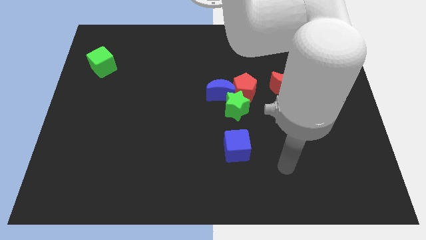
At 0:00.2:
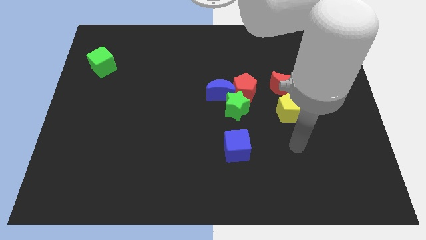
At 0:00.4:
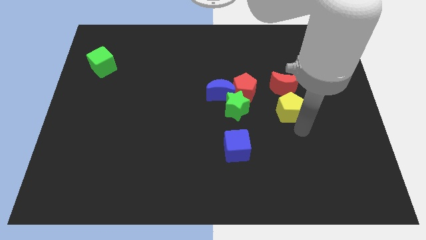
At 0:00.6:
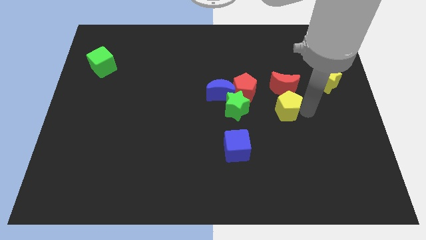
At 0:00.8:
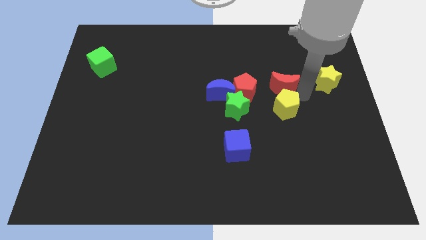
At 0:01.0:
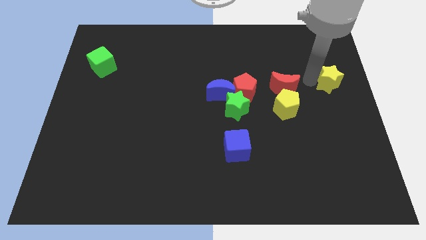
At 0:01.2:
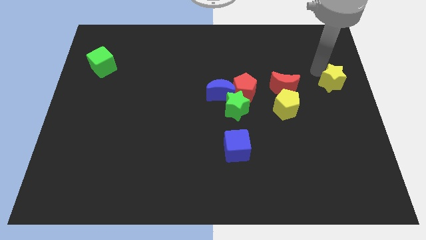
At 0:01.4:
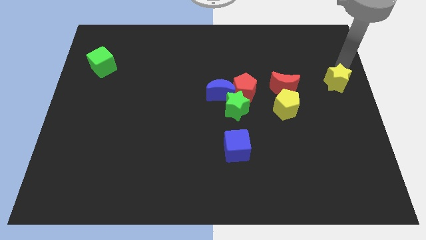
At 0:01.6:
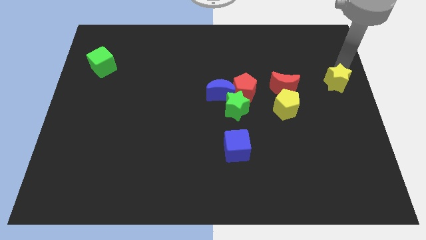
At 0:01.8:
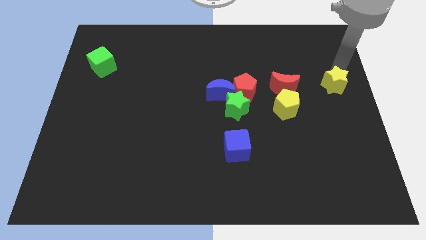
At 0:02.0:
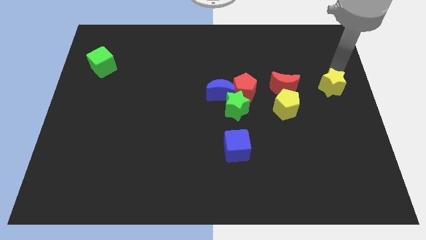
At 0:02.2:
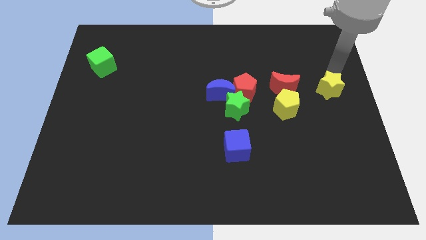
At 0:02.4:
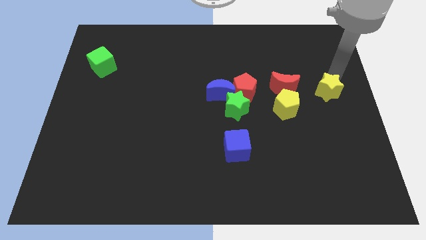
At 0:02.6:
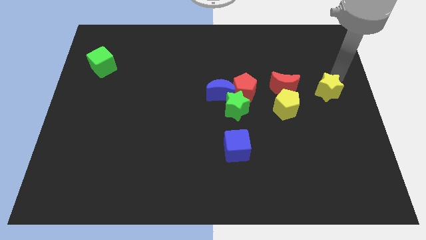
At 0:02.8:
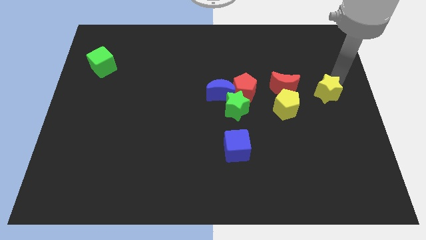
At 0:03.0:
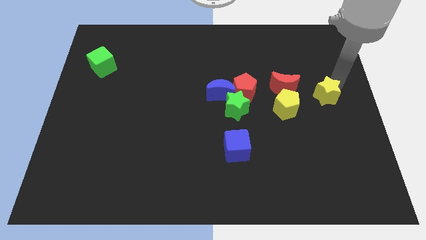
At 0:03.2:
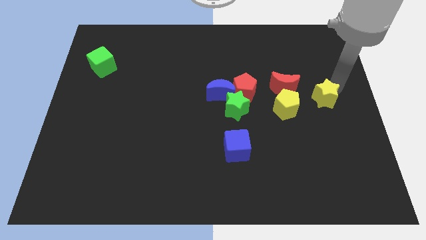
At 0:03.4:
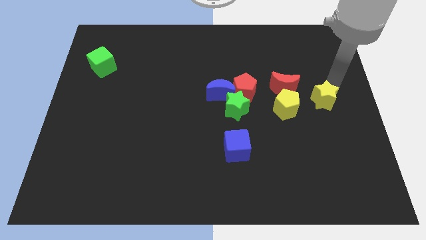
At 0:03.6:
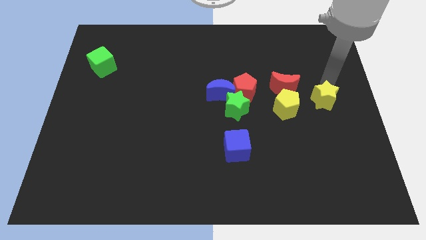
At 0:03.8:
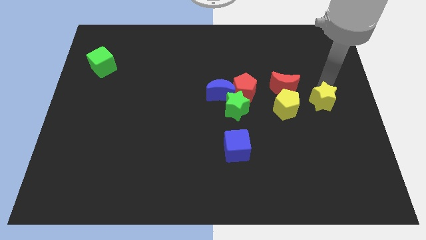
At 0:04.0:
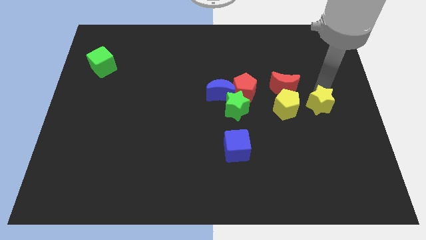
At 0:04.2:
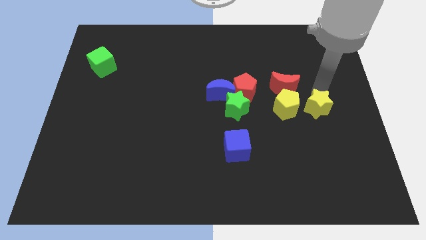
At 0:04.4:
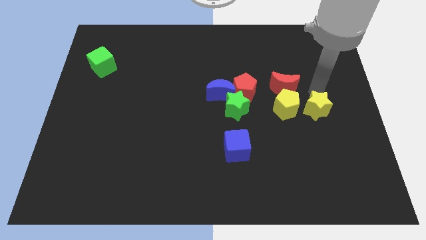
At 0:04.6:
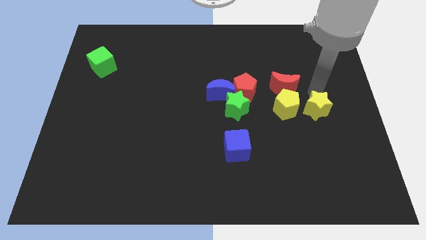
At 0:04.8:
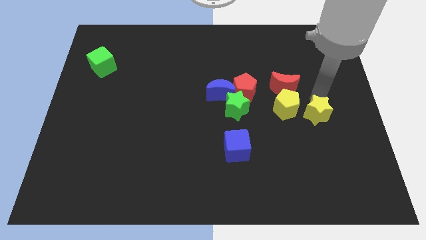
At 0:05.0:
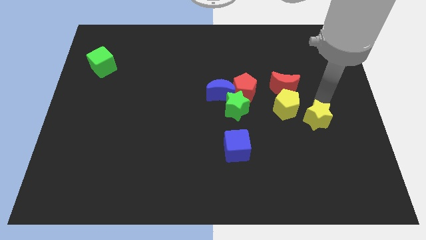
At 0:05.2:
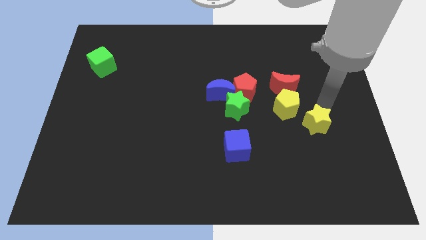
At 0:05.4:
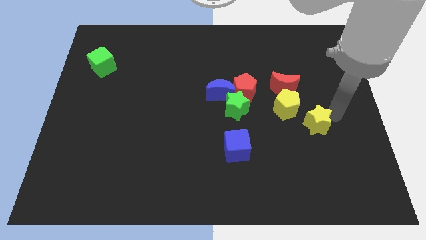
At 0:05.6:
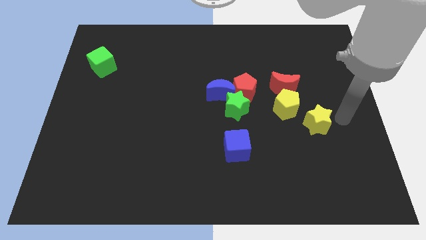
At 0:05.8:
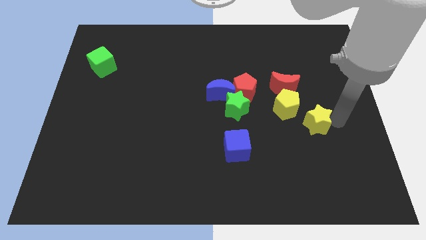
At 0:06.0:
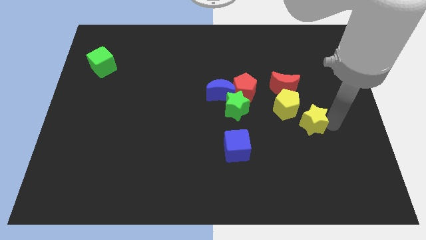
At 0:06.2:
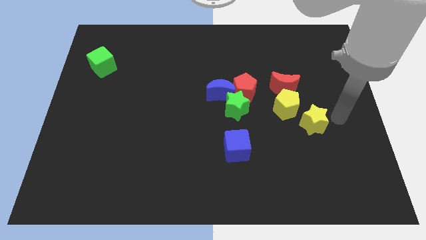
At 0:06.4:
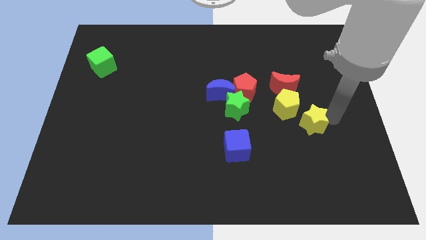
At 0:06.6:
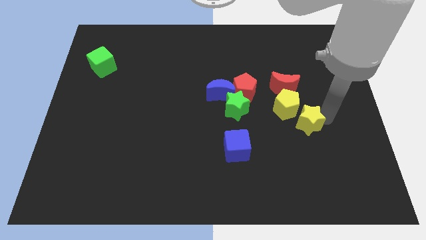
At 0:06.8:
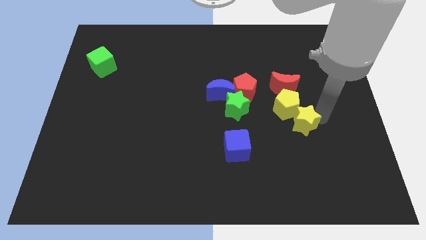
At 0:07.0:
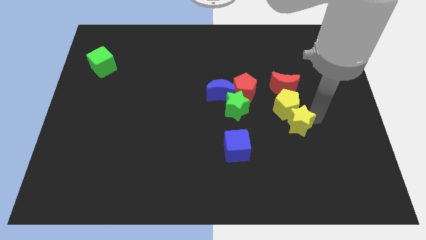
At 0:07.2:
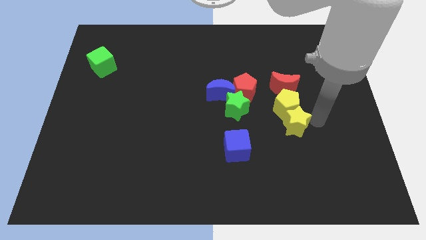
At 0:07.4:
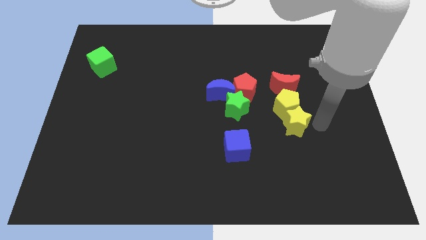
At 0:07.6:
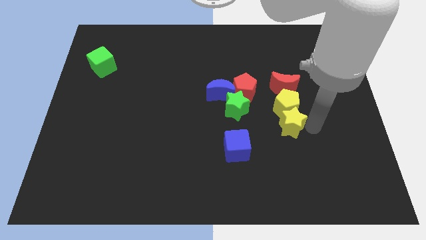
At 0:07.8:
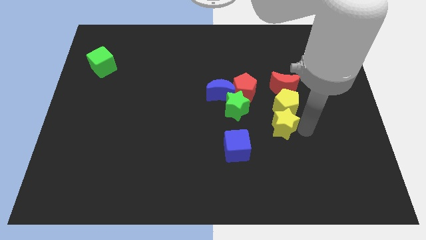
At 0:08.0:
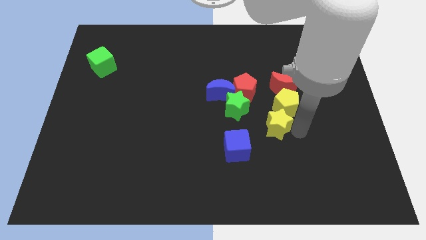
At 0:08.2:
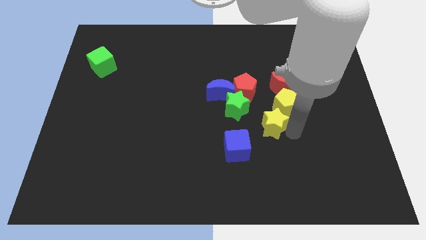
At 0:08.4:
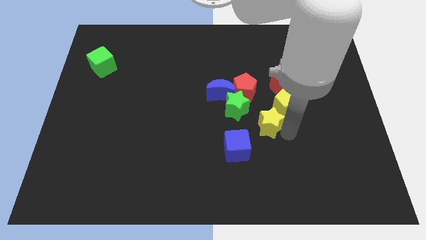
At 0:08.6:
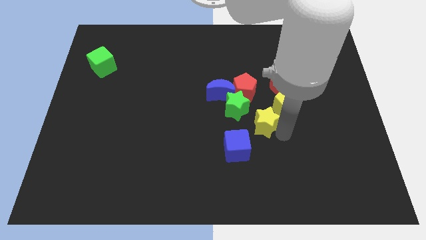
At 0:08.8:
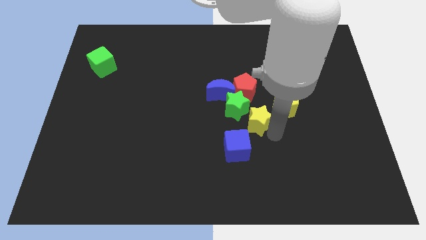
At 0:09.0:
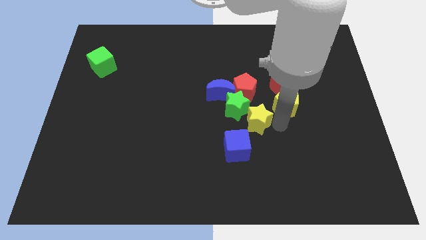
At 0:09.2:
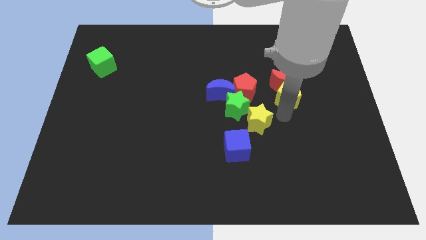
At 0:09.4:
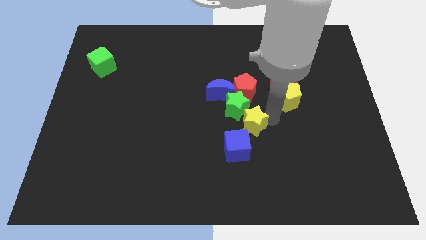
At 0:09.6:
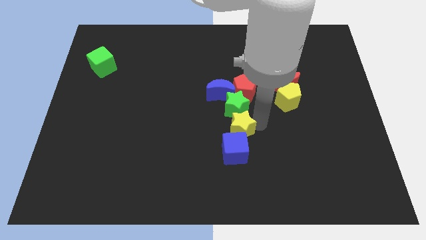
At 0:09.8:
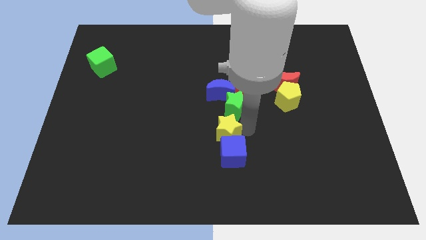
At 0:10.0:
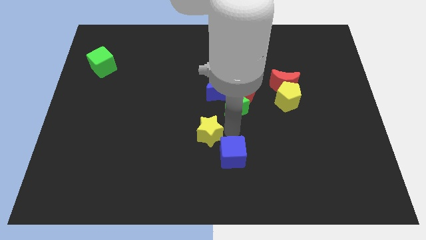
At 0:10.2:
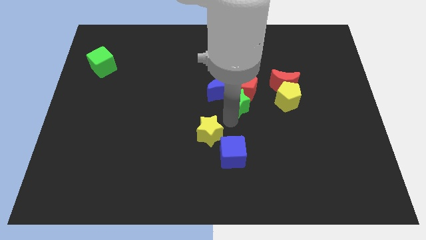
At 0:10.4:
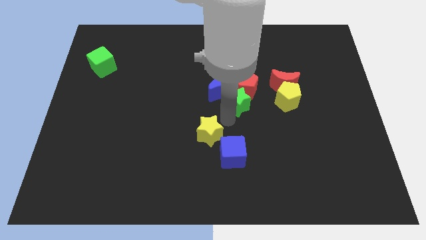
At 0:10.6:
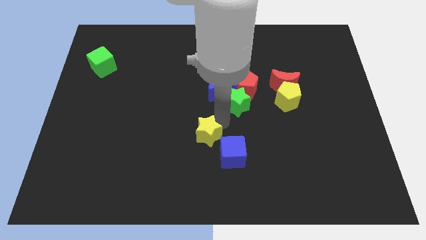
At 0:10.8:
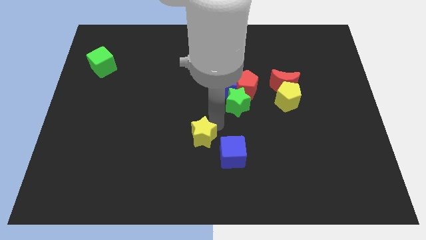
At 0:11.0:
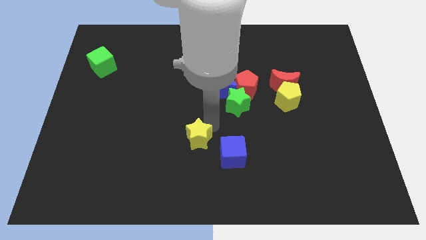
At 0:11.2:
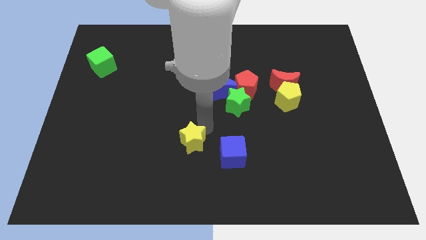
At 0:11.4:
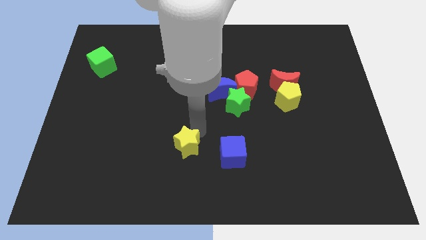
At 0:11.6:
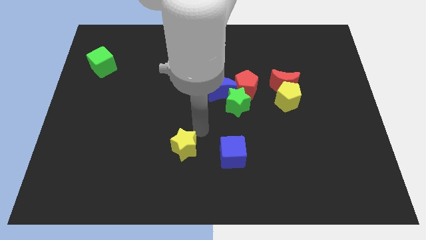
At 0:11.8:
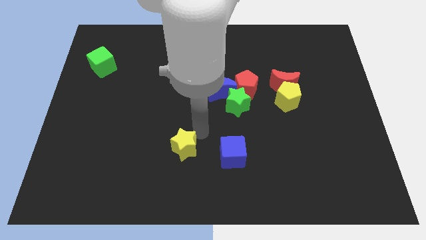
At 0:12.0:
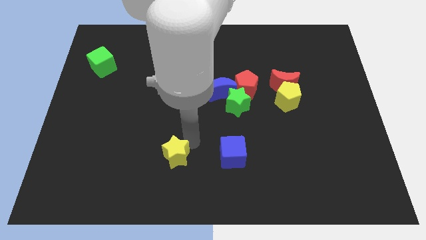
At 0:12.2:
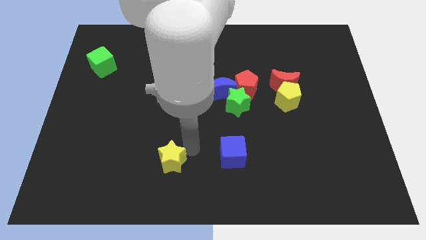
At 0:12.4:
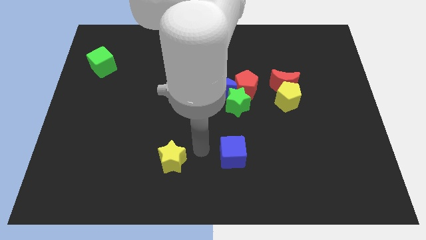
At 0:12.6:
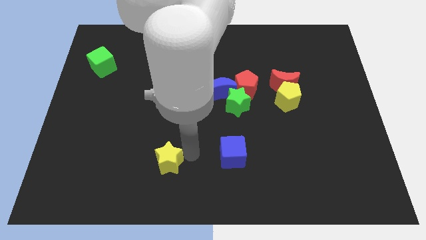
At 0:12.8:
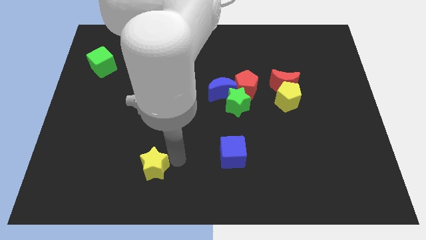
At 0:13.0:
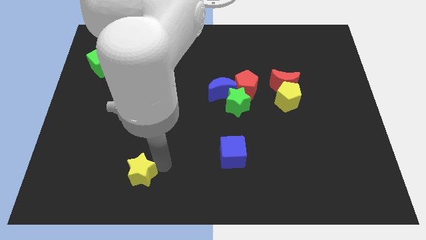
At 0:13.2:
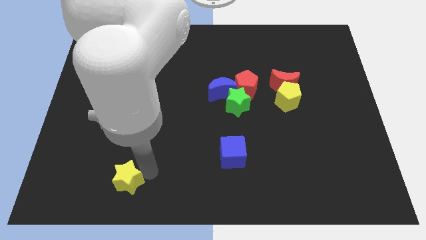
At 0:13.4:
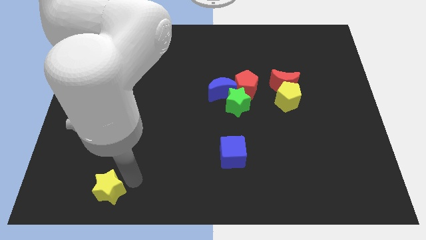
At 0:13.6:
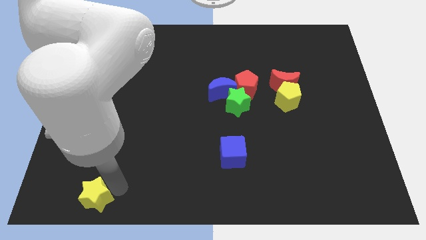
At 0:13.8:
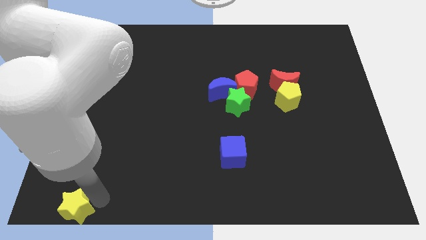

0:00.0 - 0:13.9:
slide the yellow star to the bottom left of the board
